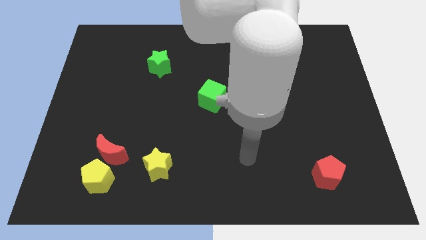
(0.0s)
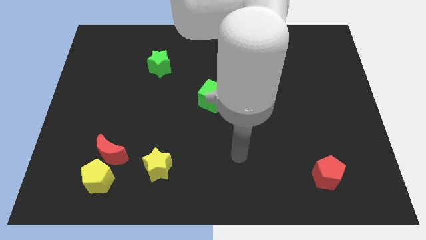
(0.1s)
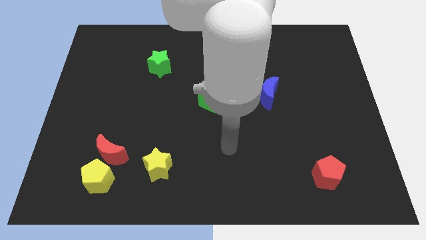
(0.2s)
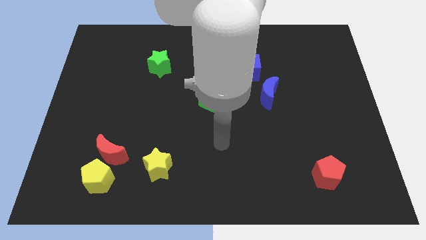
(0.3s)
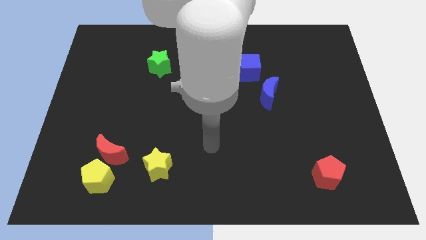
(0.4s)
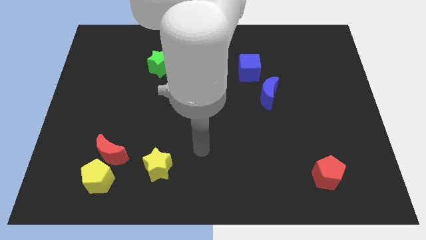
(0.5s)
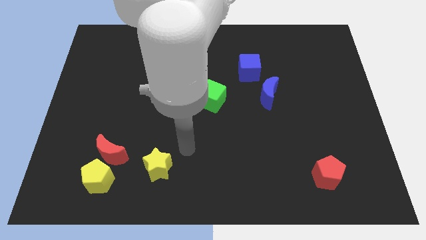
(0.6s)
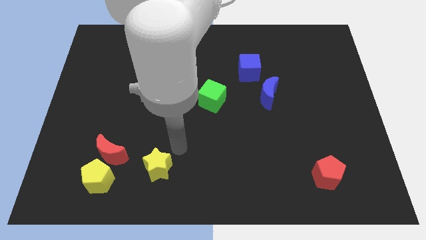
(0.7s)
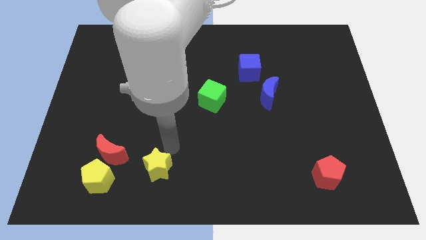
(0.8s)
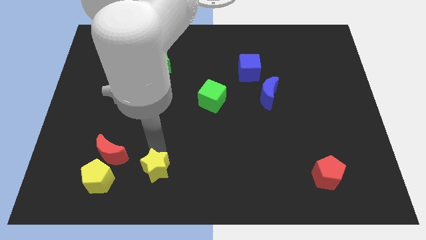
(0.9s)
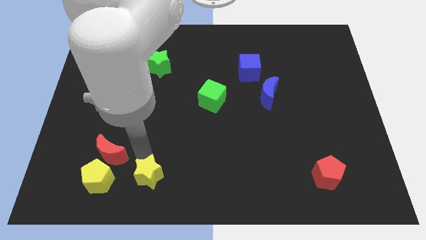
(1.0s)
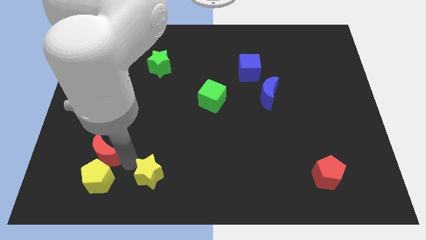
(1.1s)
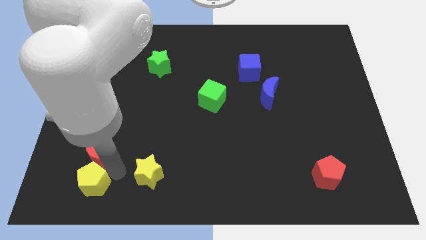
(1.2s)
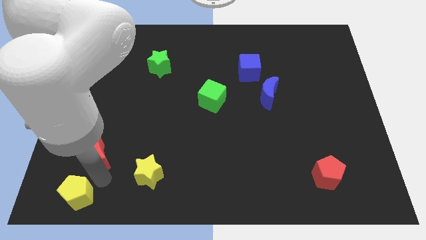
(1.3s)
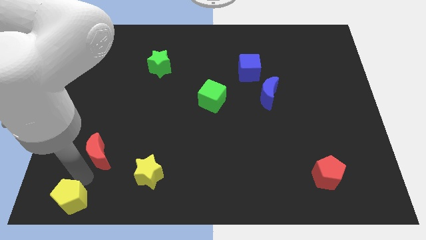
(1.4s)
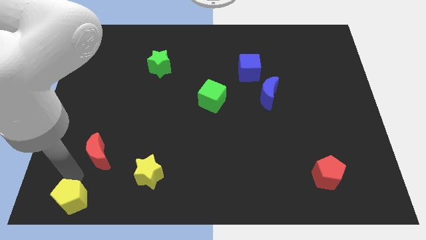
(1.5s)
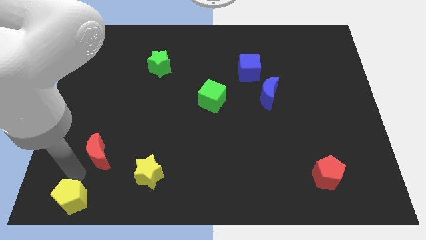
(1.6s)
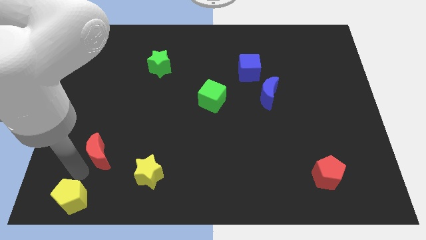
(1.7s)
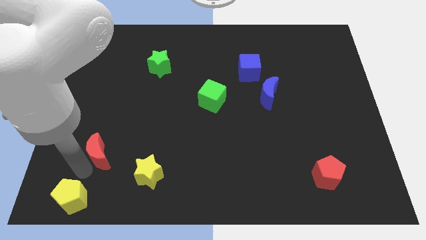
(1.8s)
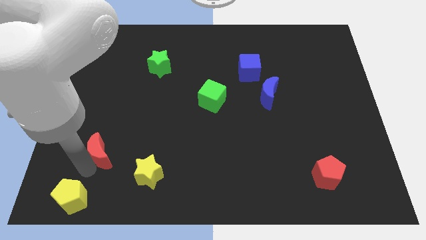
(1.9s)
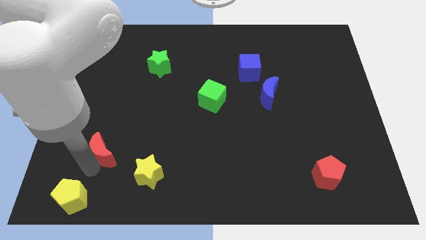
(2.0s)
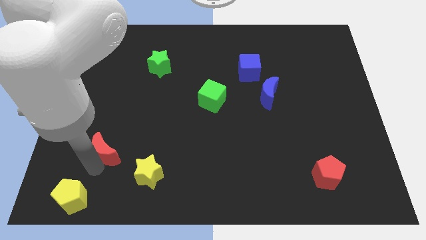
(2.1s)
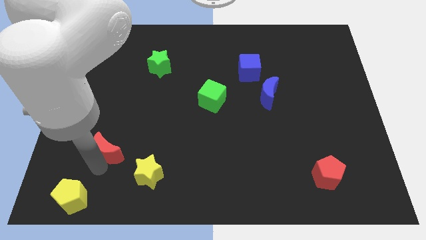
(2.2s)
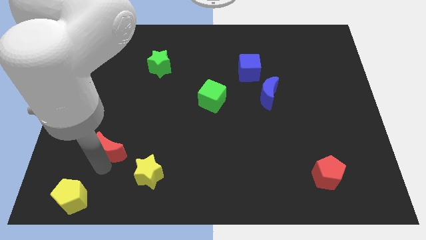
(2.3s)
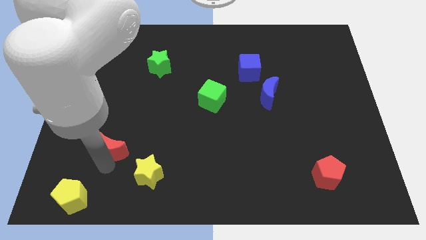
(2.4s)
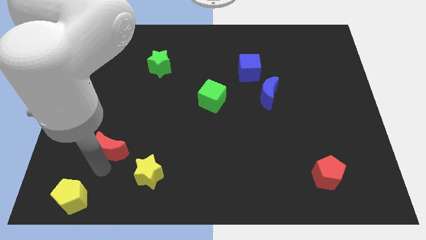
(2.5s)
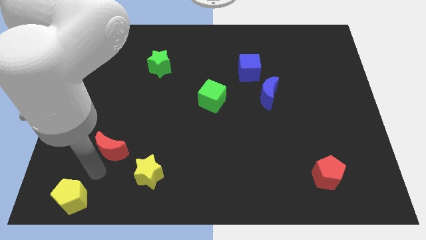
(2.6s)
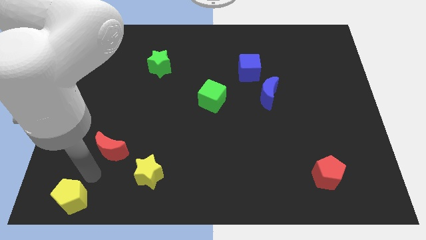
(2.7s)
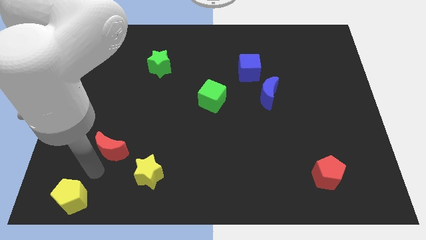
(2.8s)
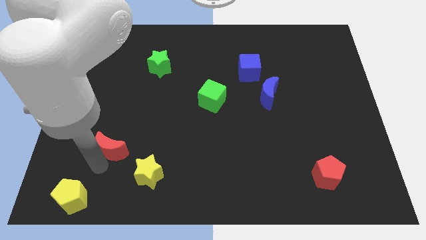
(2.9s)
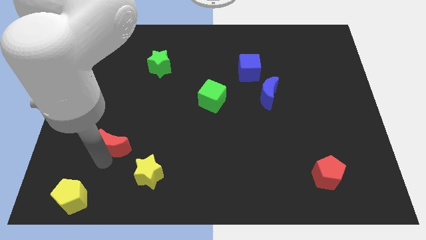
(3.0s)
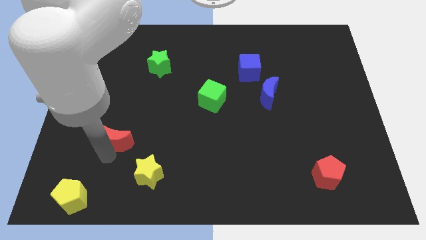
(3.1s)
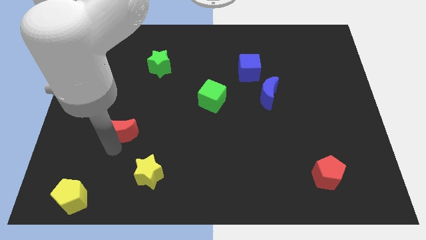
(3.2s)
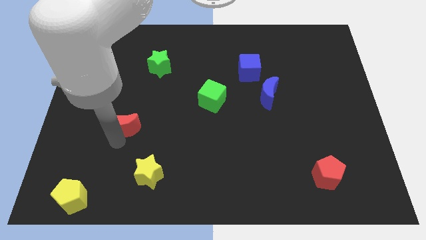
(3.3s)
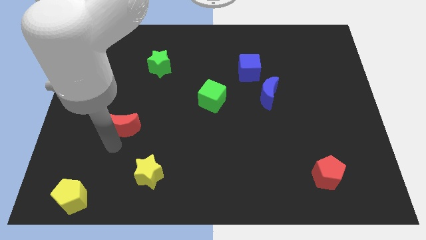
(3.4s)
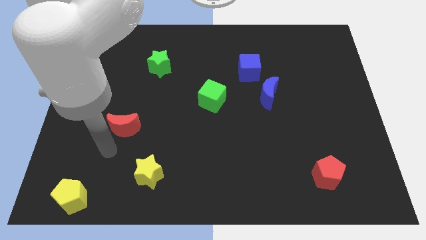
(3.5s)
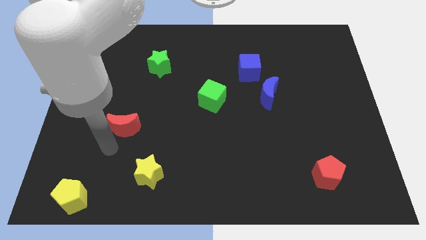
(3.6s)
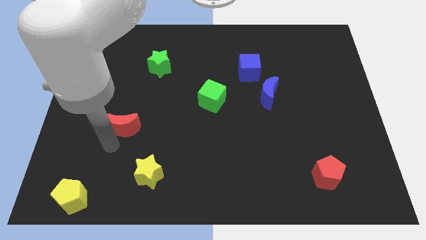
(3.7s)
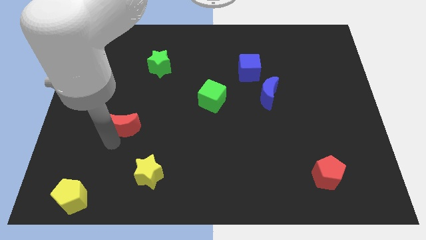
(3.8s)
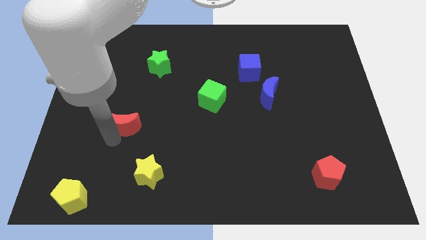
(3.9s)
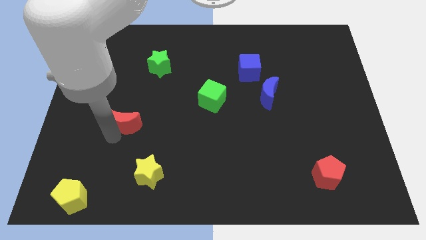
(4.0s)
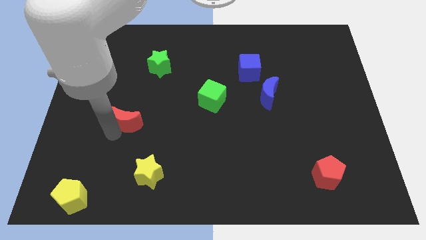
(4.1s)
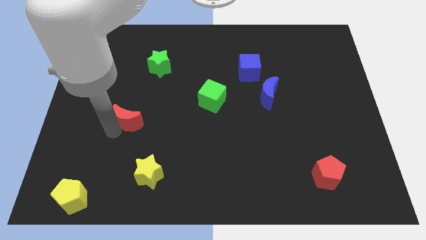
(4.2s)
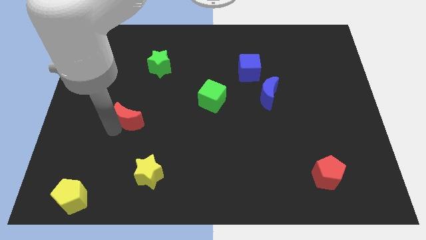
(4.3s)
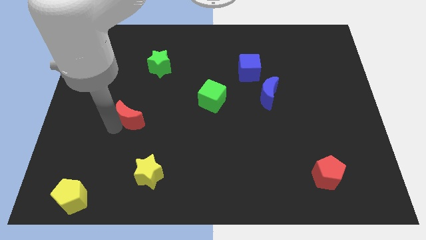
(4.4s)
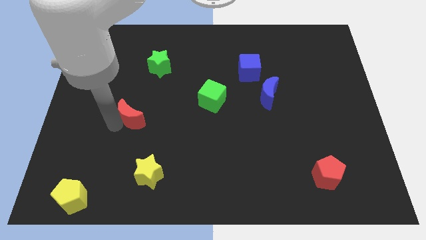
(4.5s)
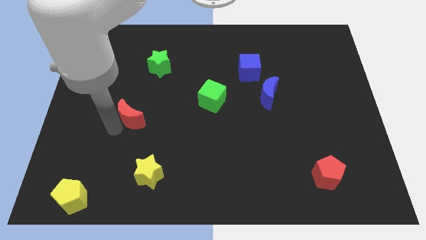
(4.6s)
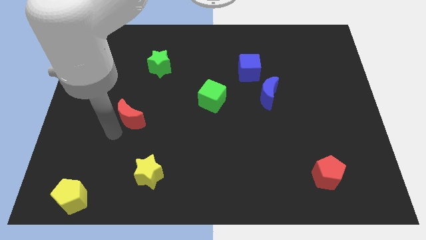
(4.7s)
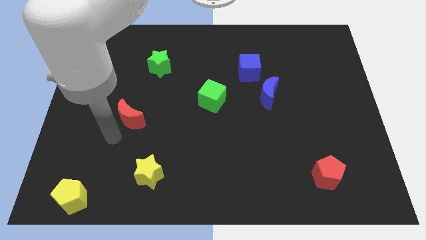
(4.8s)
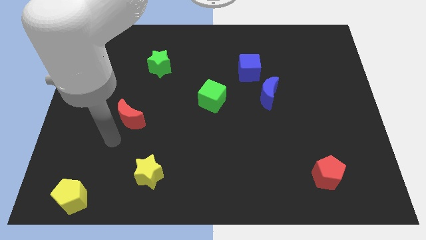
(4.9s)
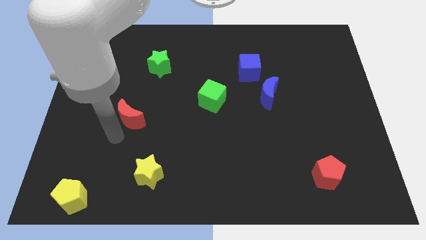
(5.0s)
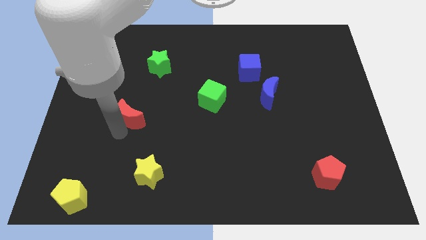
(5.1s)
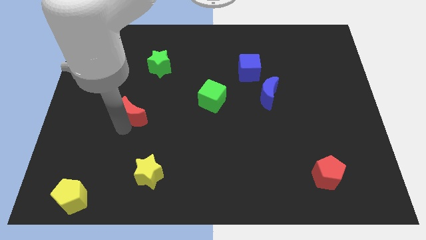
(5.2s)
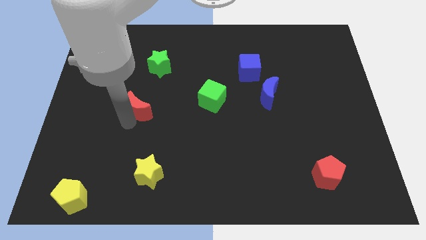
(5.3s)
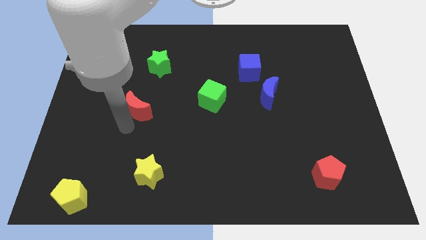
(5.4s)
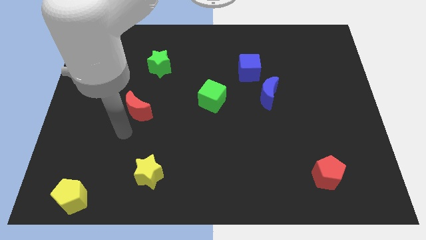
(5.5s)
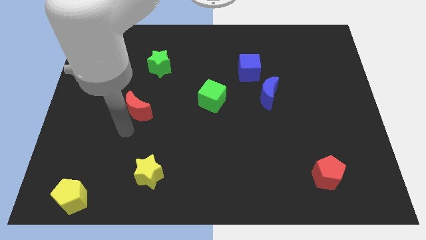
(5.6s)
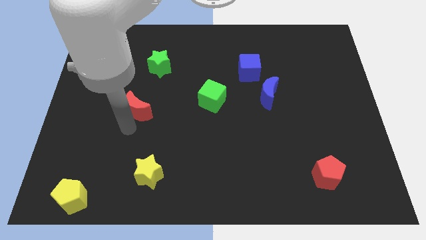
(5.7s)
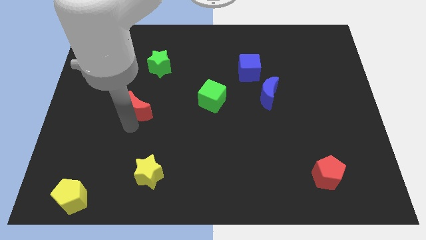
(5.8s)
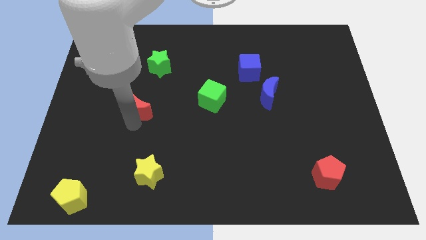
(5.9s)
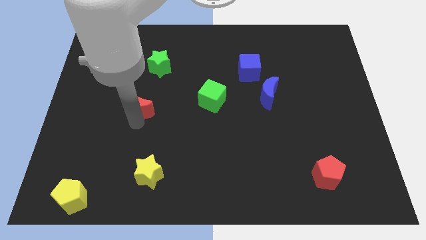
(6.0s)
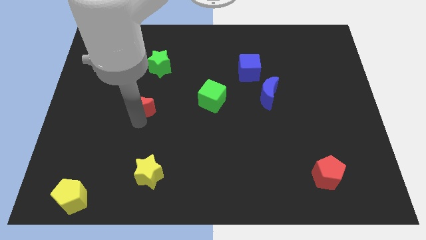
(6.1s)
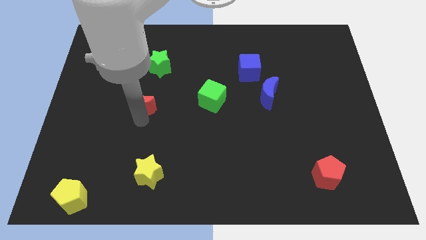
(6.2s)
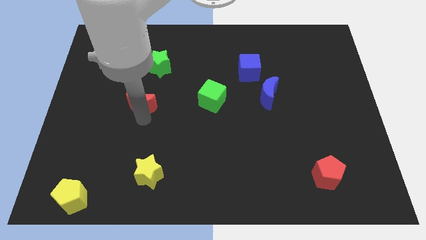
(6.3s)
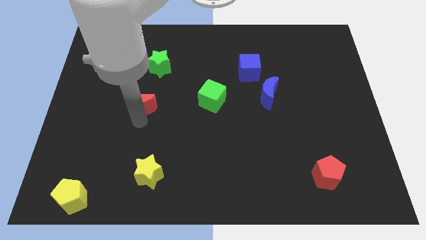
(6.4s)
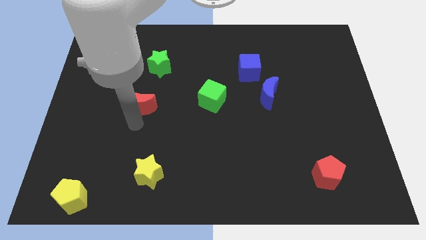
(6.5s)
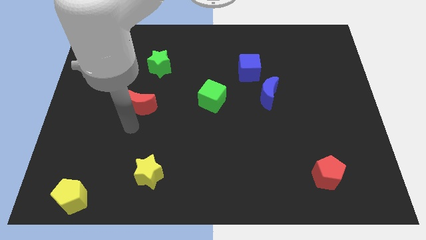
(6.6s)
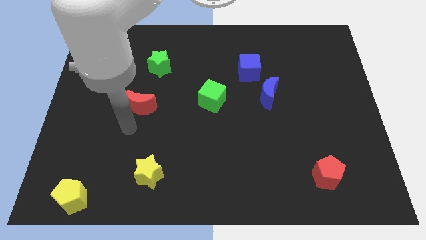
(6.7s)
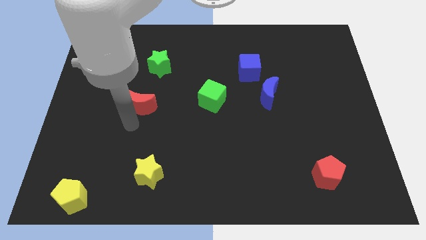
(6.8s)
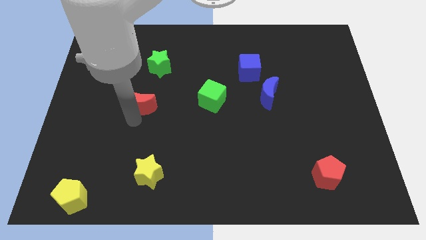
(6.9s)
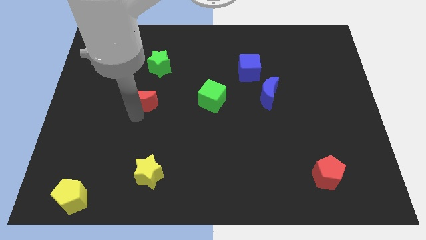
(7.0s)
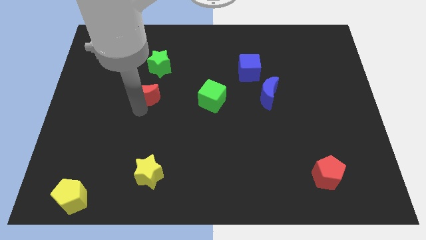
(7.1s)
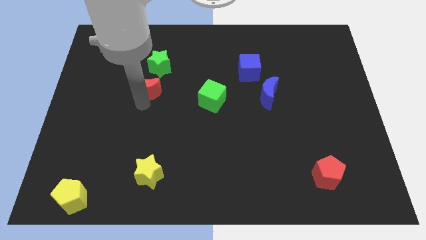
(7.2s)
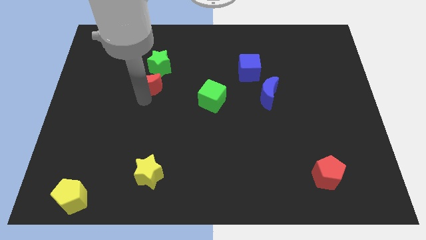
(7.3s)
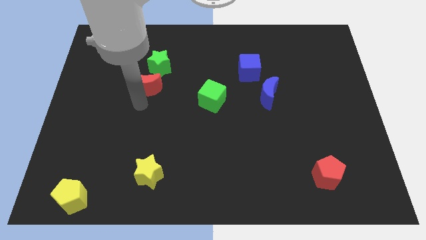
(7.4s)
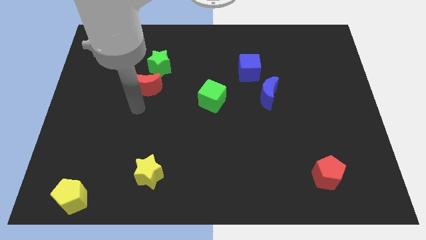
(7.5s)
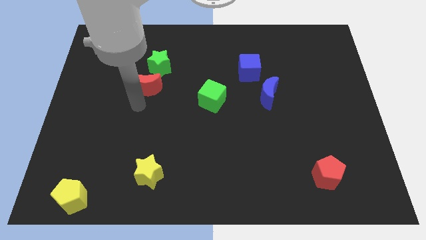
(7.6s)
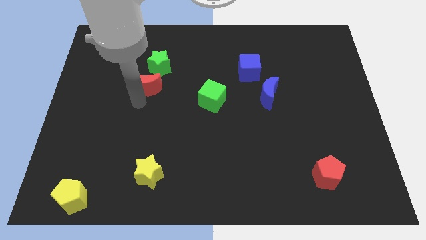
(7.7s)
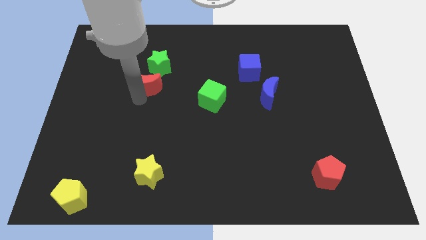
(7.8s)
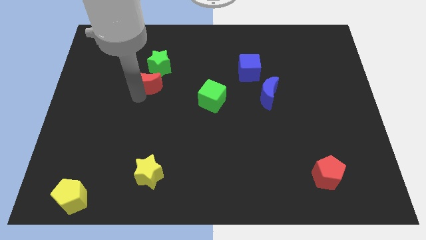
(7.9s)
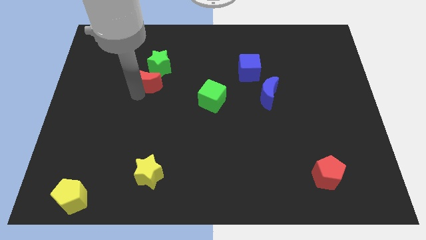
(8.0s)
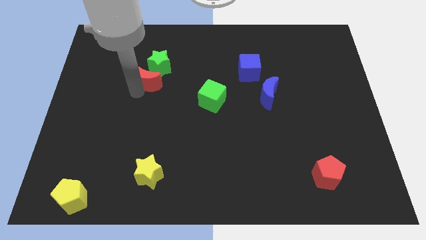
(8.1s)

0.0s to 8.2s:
slide the red moon close to the green star
